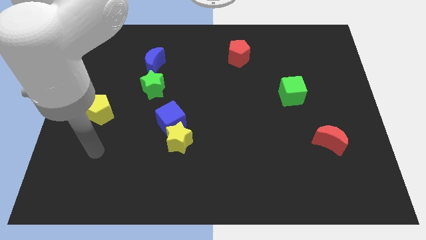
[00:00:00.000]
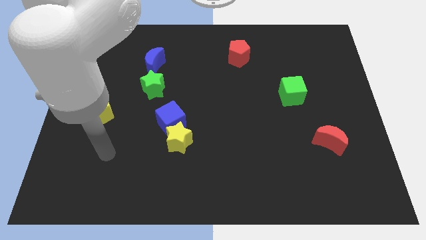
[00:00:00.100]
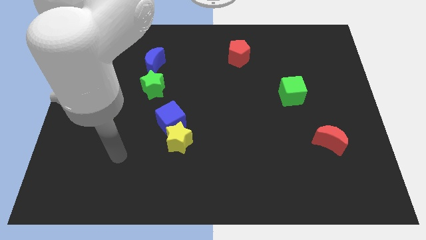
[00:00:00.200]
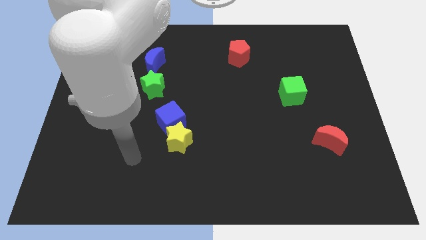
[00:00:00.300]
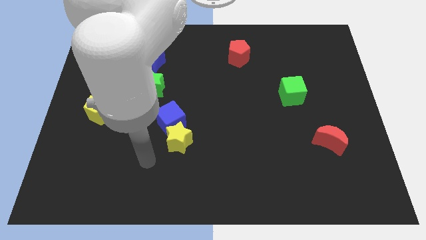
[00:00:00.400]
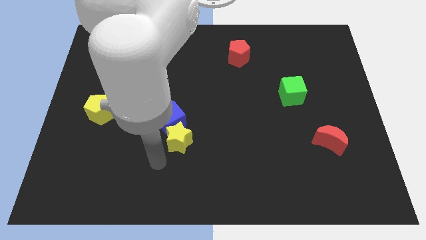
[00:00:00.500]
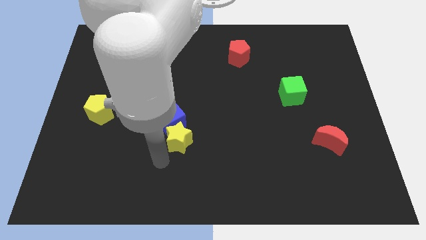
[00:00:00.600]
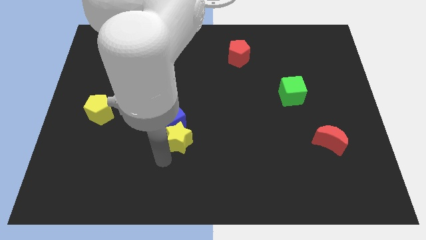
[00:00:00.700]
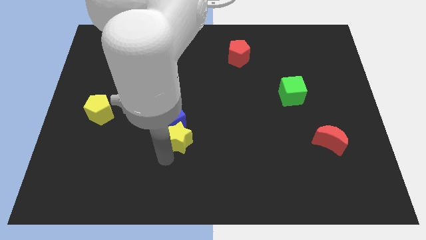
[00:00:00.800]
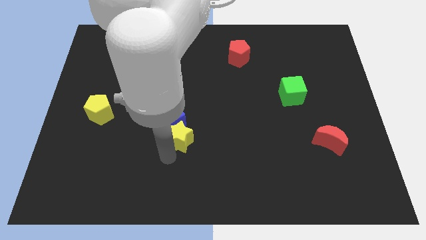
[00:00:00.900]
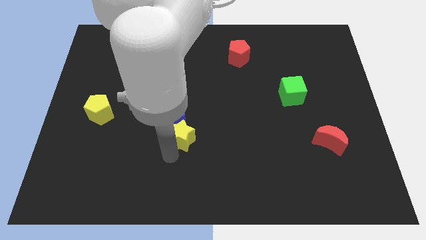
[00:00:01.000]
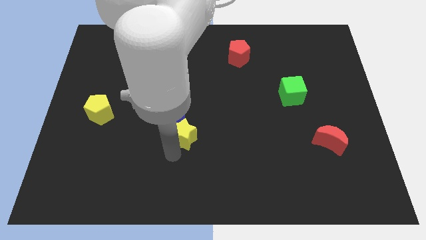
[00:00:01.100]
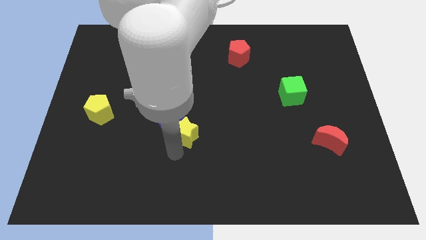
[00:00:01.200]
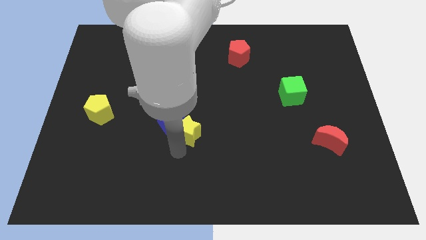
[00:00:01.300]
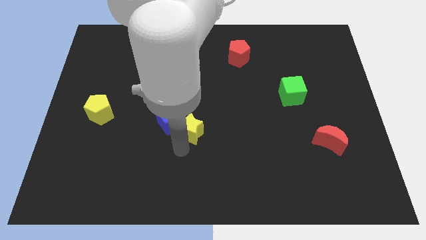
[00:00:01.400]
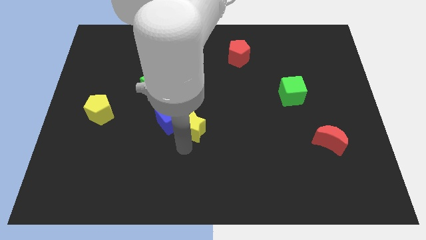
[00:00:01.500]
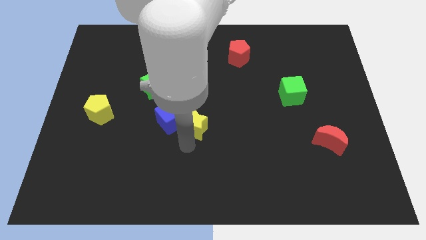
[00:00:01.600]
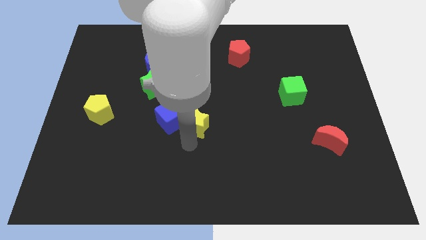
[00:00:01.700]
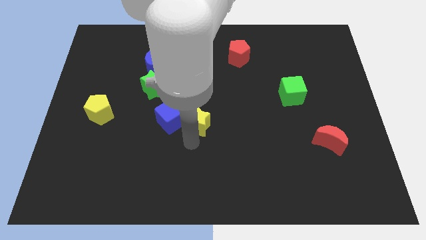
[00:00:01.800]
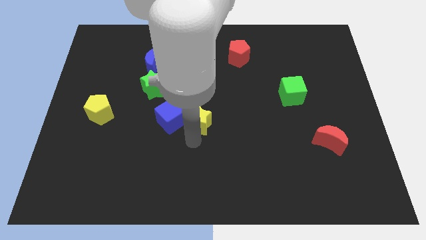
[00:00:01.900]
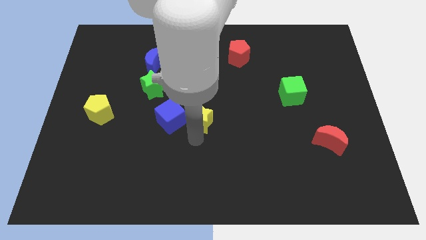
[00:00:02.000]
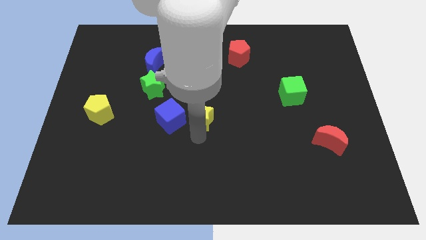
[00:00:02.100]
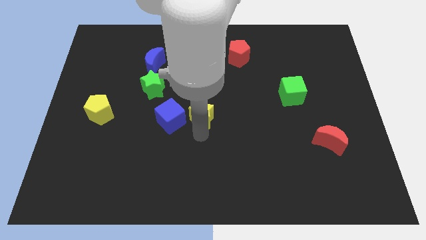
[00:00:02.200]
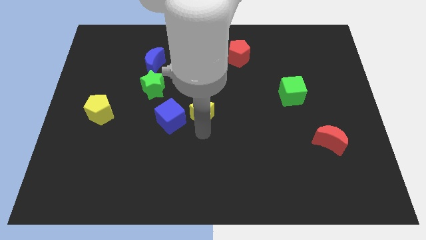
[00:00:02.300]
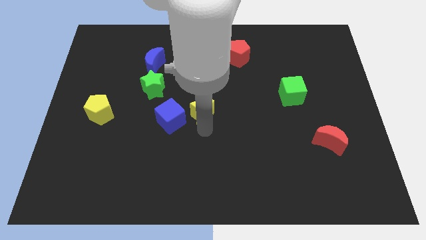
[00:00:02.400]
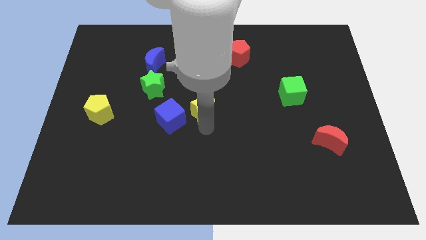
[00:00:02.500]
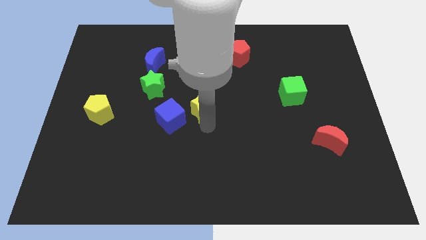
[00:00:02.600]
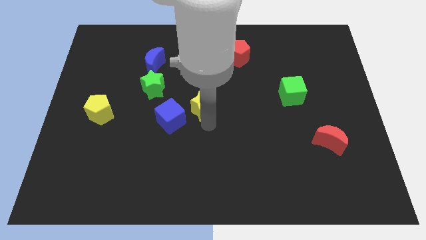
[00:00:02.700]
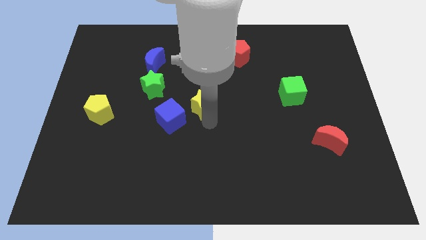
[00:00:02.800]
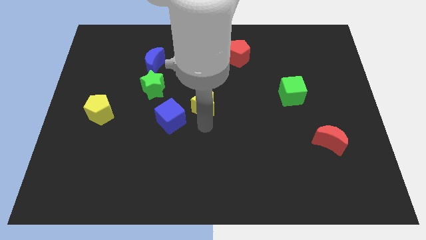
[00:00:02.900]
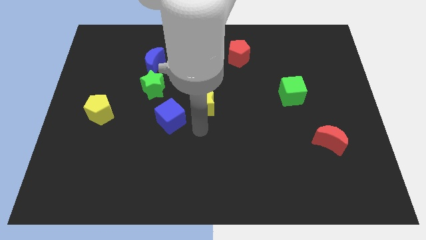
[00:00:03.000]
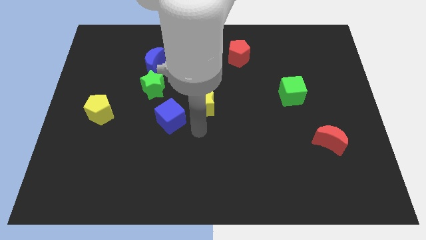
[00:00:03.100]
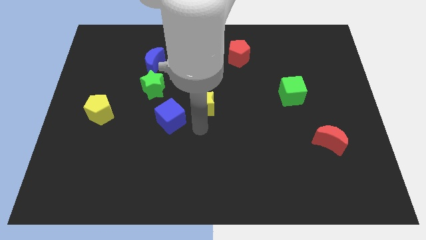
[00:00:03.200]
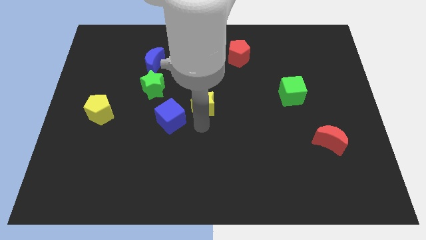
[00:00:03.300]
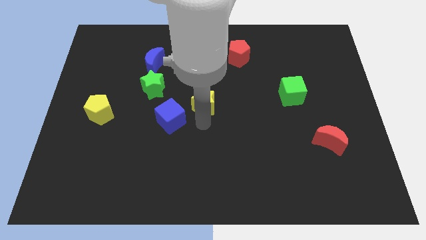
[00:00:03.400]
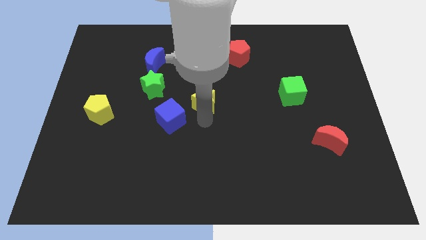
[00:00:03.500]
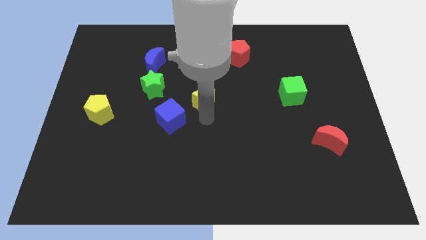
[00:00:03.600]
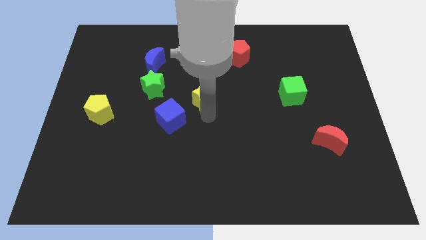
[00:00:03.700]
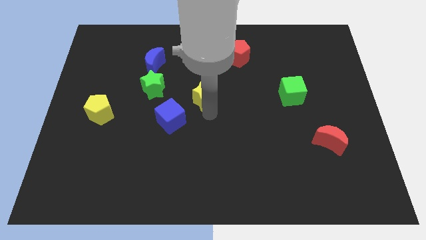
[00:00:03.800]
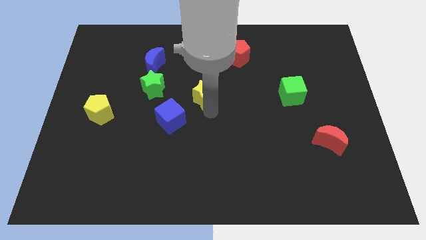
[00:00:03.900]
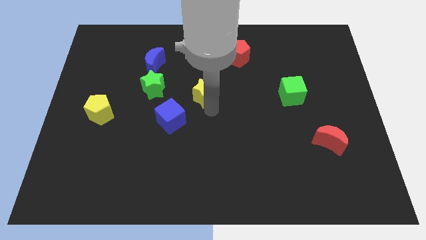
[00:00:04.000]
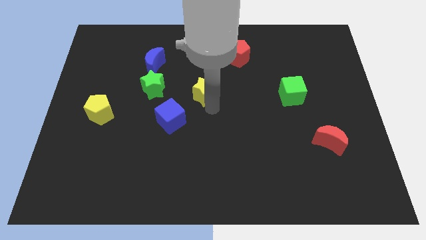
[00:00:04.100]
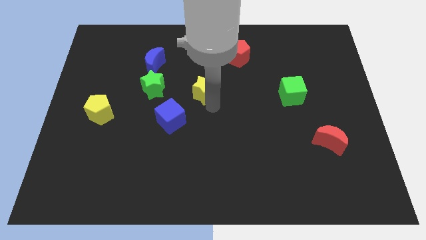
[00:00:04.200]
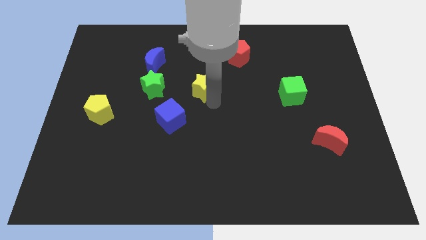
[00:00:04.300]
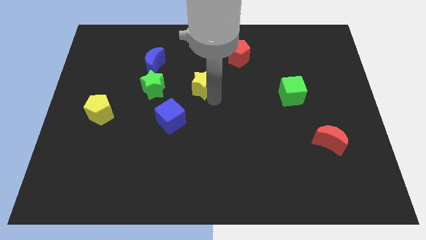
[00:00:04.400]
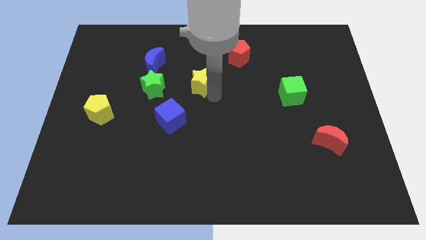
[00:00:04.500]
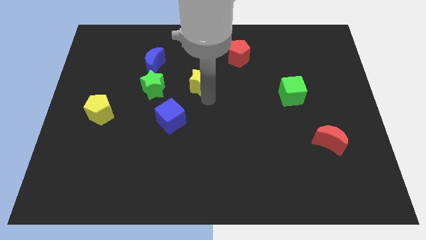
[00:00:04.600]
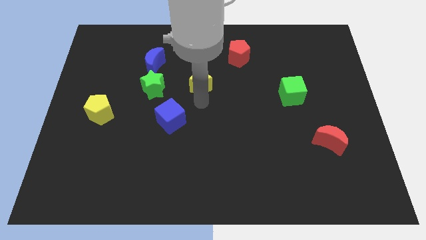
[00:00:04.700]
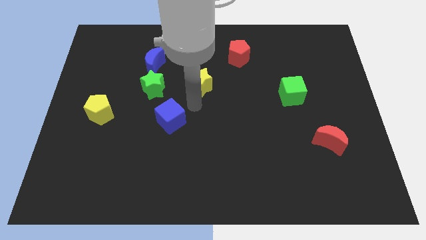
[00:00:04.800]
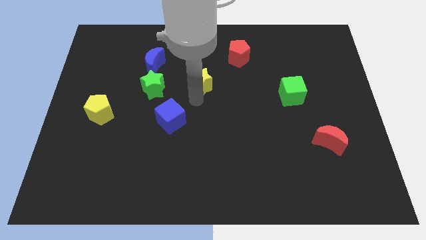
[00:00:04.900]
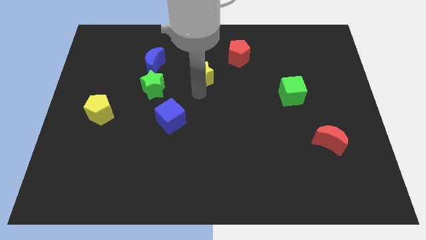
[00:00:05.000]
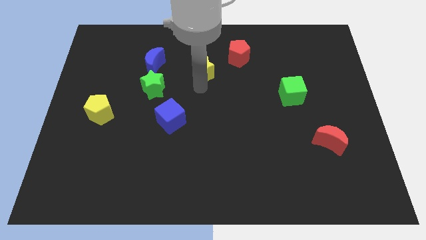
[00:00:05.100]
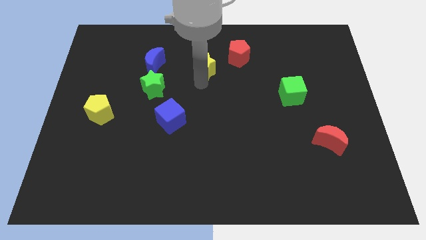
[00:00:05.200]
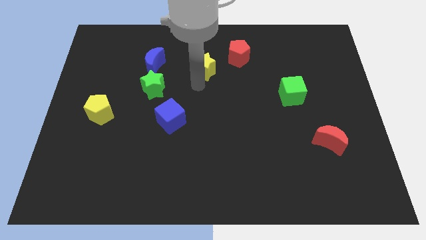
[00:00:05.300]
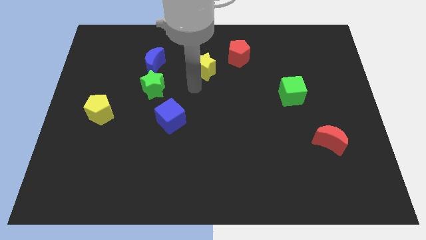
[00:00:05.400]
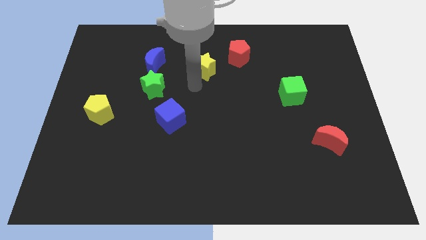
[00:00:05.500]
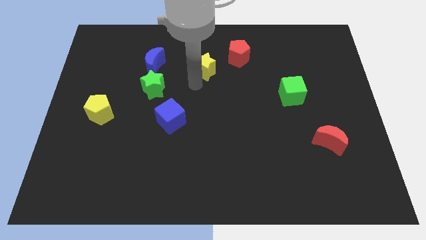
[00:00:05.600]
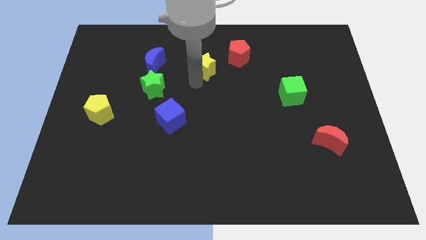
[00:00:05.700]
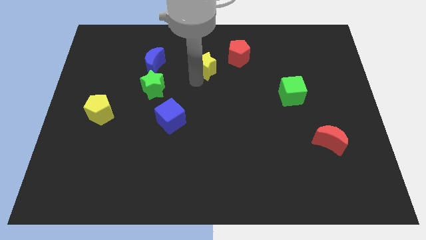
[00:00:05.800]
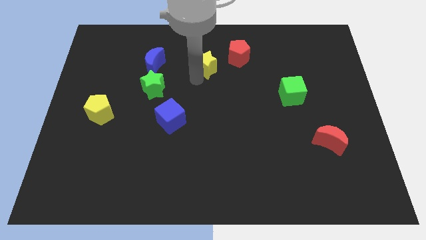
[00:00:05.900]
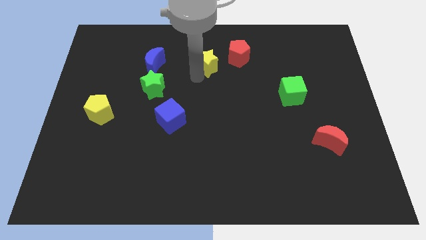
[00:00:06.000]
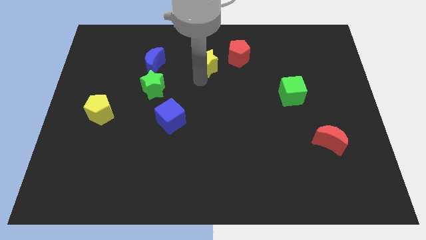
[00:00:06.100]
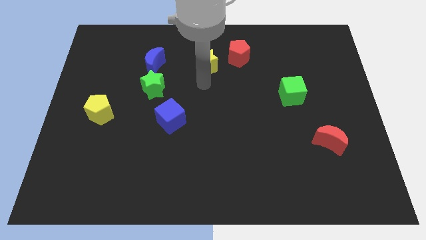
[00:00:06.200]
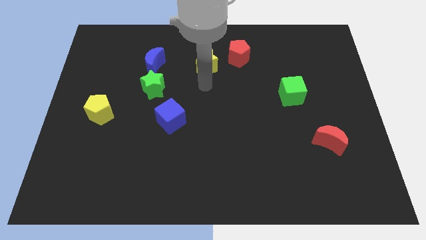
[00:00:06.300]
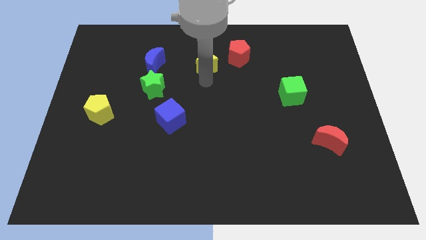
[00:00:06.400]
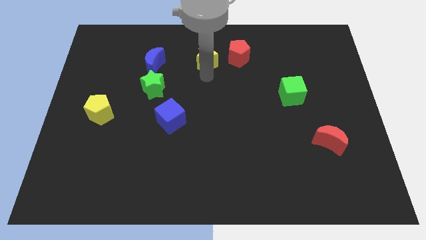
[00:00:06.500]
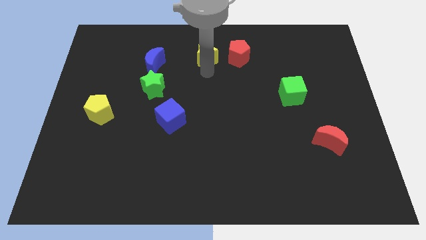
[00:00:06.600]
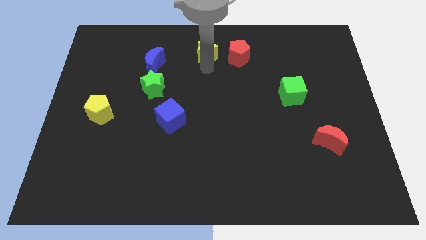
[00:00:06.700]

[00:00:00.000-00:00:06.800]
slide the yellow star to the top

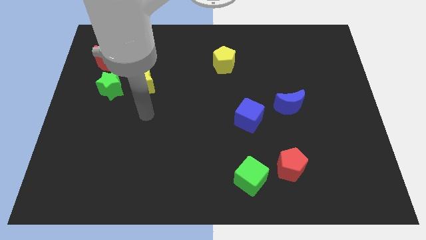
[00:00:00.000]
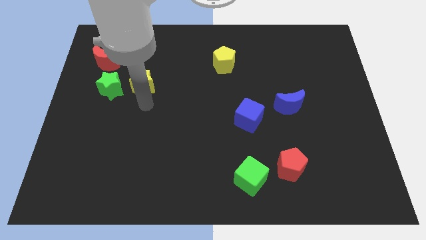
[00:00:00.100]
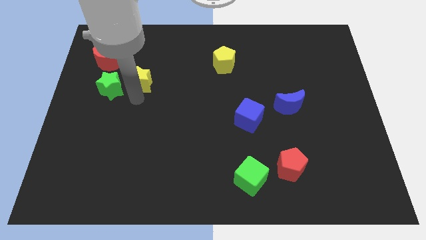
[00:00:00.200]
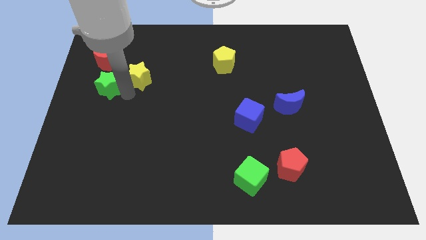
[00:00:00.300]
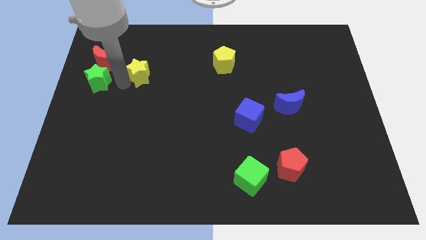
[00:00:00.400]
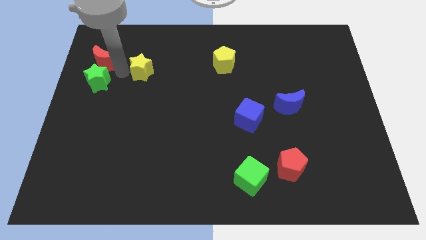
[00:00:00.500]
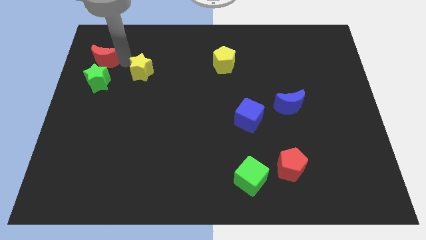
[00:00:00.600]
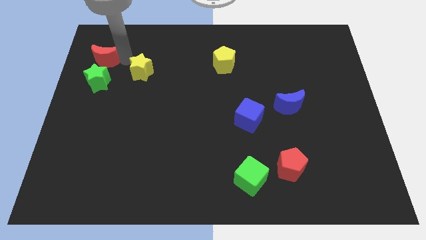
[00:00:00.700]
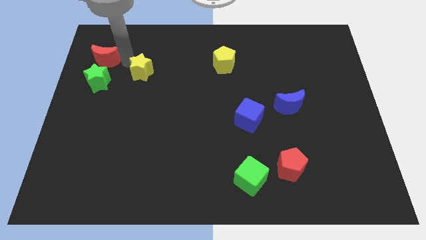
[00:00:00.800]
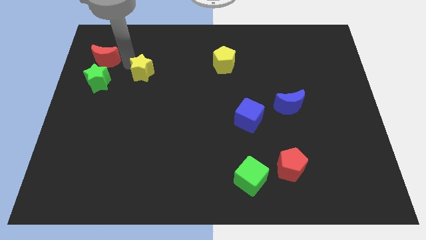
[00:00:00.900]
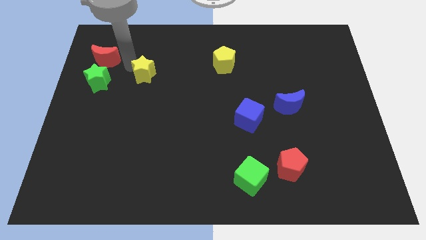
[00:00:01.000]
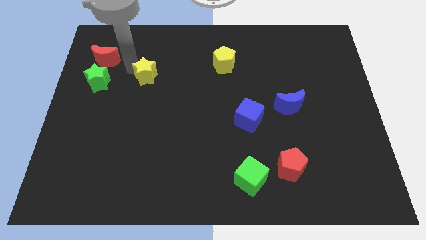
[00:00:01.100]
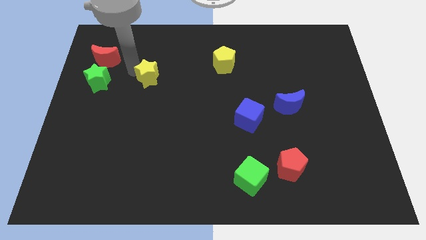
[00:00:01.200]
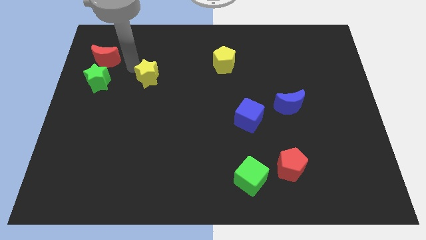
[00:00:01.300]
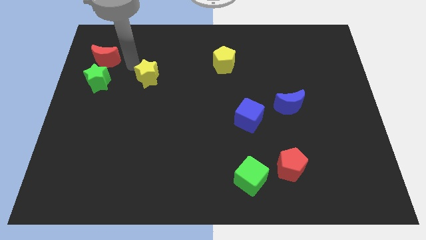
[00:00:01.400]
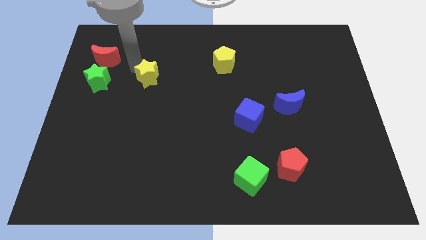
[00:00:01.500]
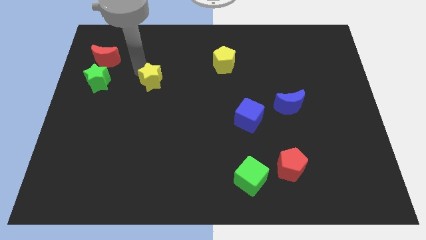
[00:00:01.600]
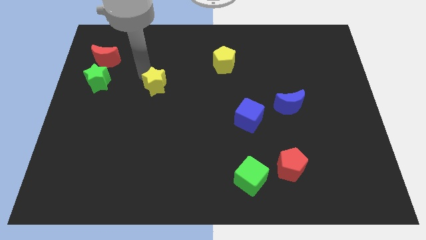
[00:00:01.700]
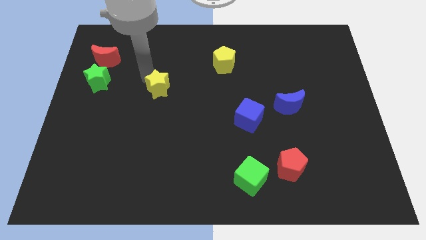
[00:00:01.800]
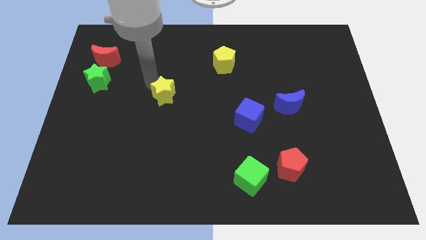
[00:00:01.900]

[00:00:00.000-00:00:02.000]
push the yellow star to the center of the board
